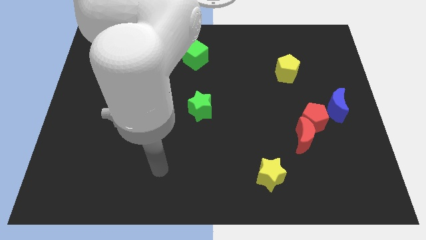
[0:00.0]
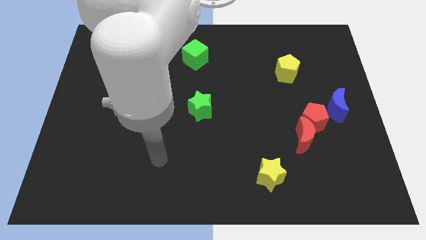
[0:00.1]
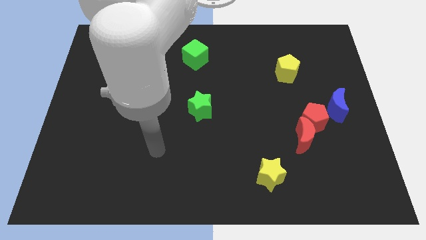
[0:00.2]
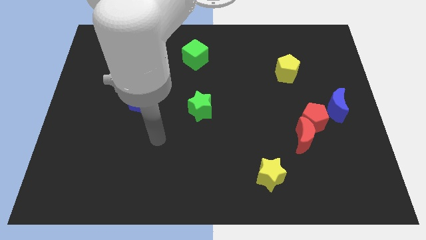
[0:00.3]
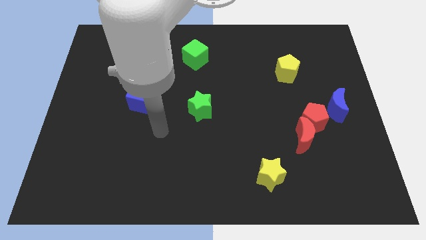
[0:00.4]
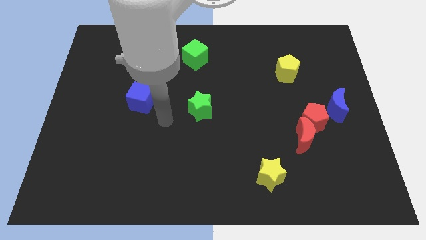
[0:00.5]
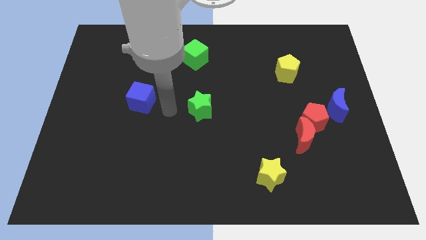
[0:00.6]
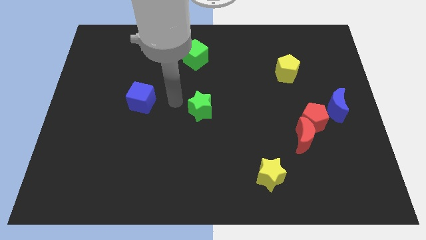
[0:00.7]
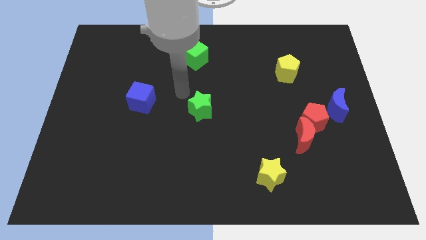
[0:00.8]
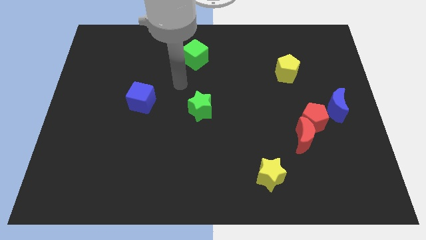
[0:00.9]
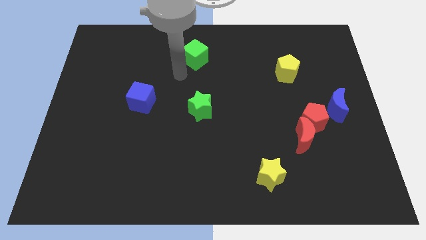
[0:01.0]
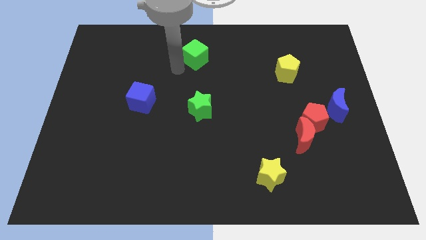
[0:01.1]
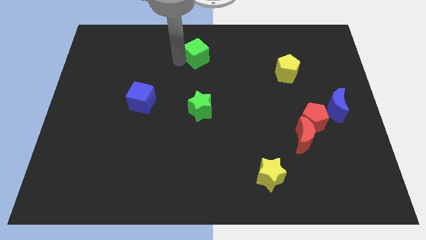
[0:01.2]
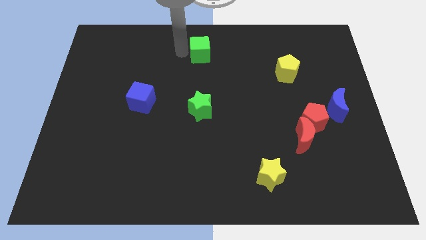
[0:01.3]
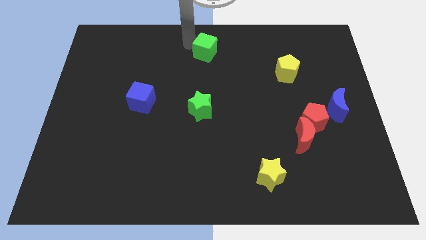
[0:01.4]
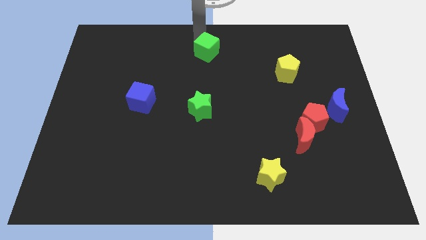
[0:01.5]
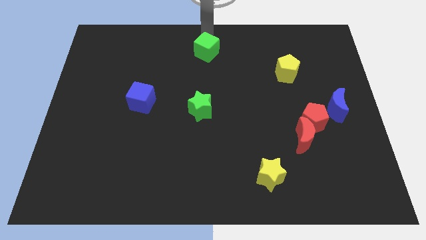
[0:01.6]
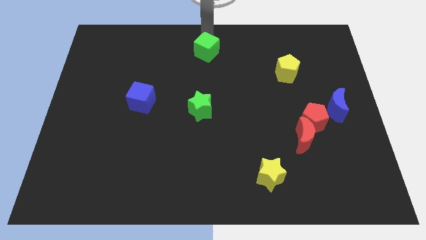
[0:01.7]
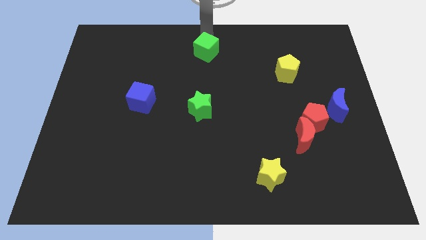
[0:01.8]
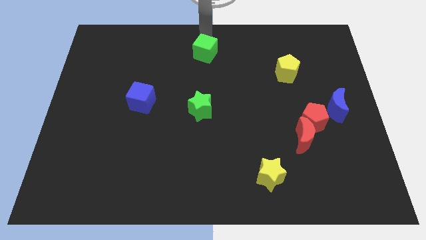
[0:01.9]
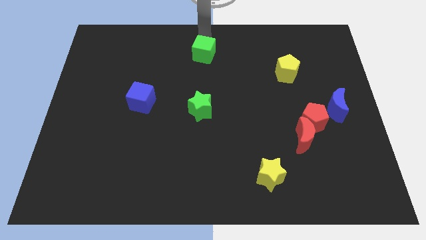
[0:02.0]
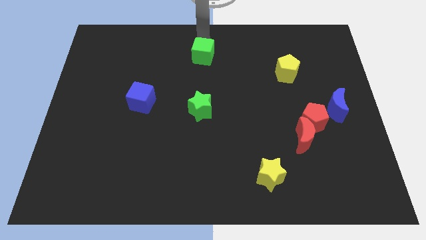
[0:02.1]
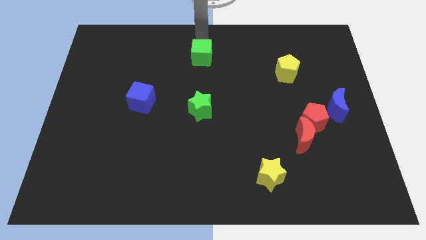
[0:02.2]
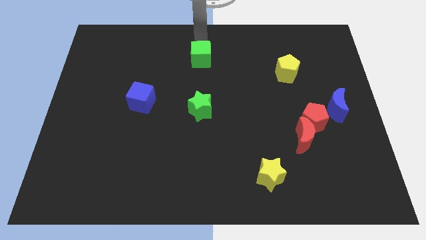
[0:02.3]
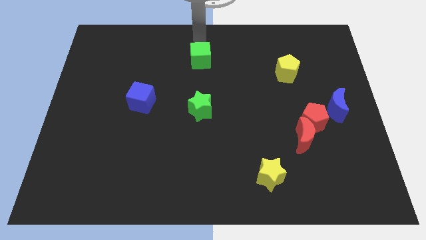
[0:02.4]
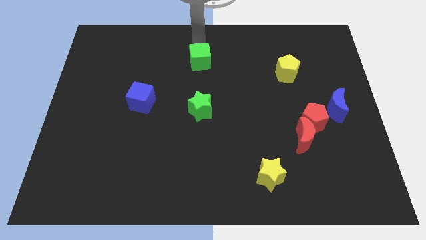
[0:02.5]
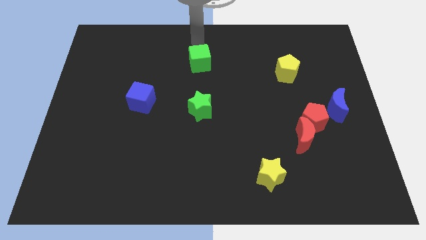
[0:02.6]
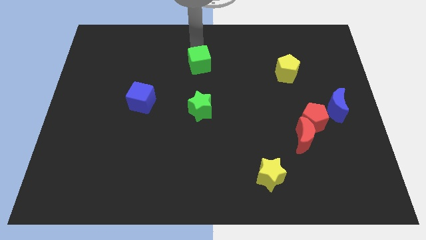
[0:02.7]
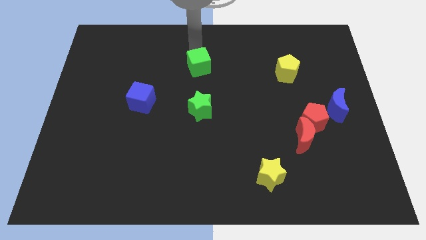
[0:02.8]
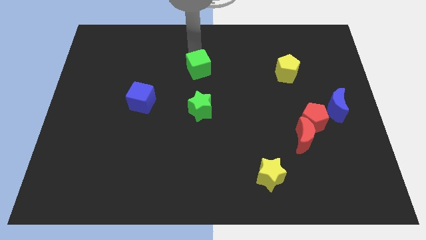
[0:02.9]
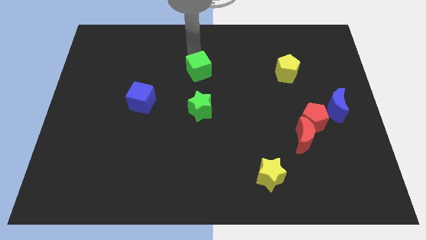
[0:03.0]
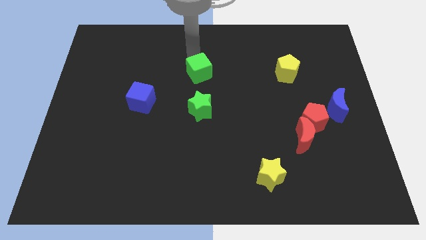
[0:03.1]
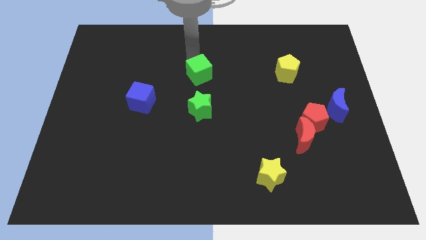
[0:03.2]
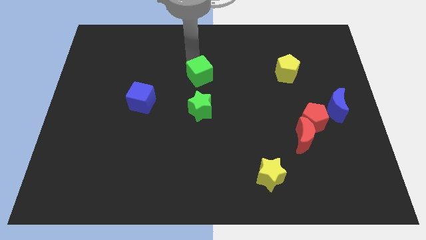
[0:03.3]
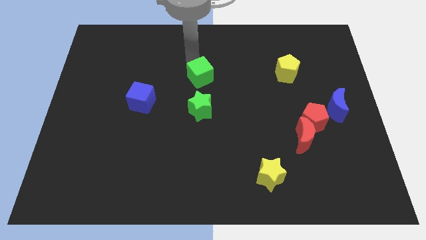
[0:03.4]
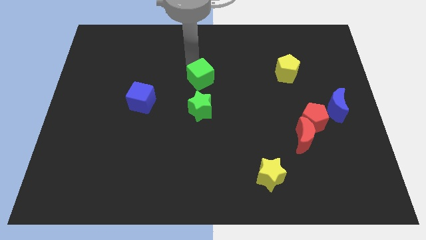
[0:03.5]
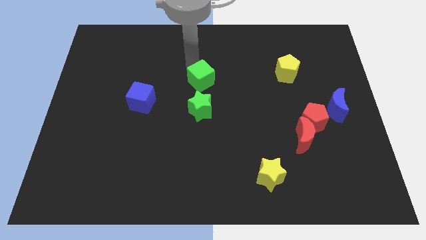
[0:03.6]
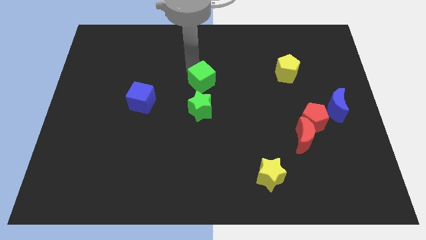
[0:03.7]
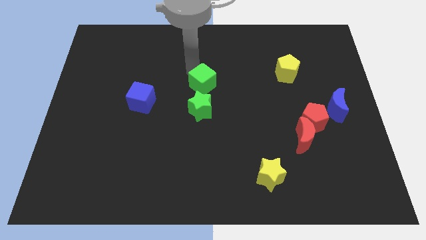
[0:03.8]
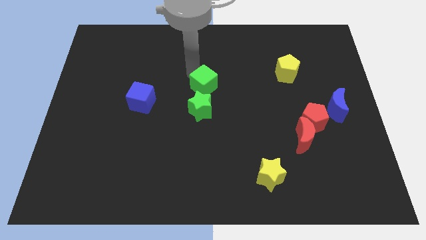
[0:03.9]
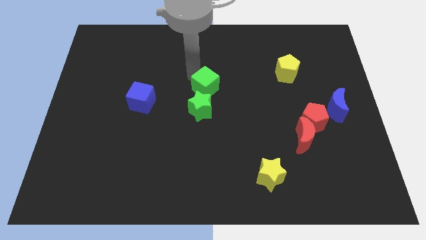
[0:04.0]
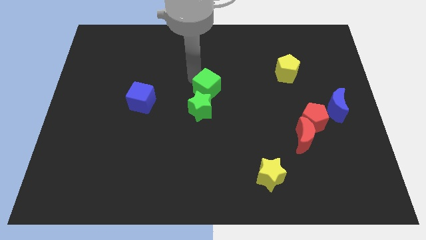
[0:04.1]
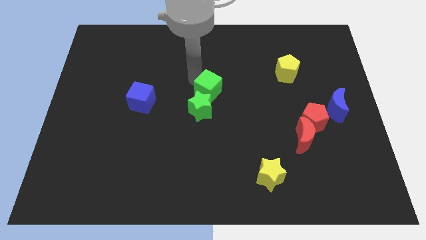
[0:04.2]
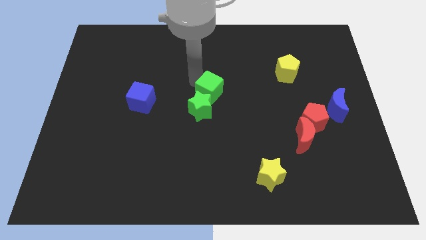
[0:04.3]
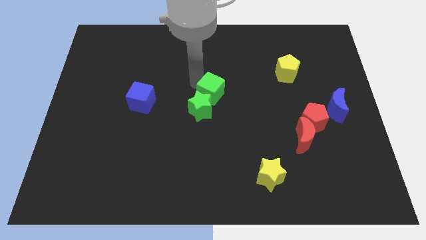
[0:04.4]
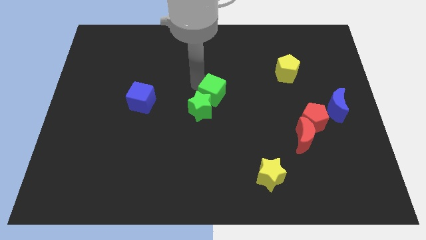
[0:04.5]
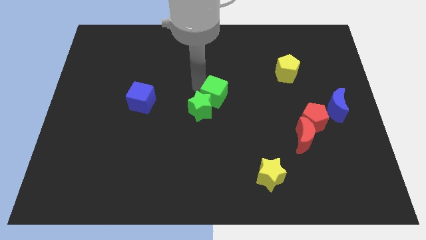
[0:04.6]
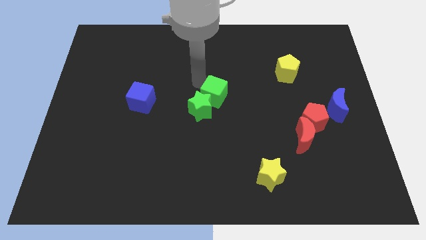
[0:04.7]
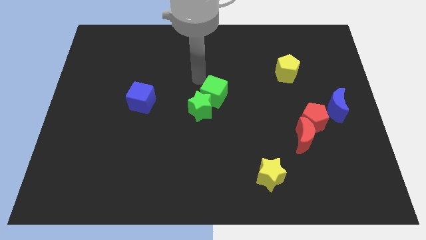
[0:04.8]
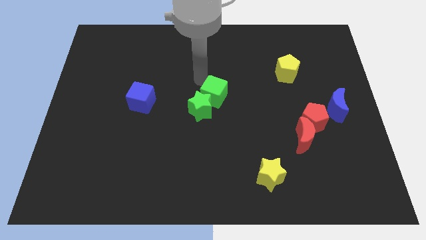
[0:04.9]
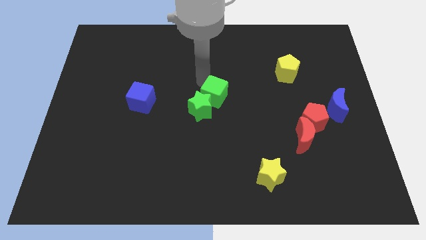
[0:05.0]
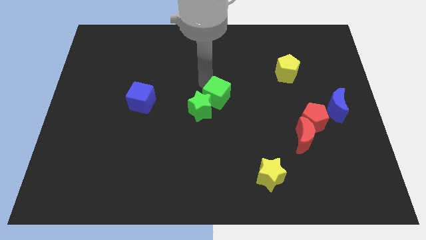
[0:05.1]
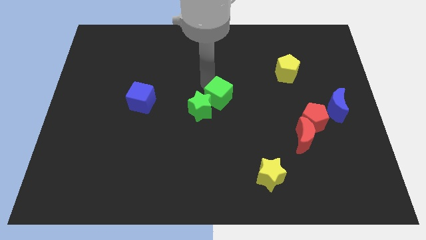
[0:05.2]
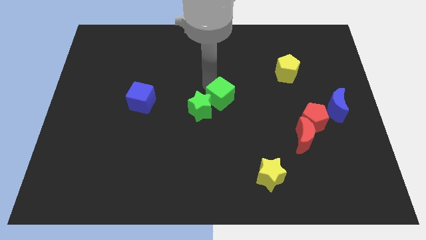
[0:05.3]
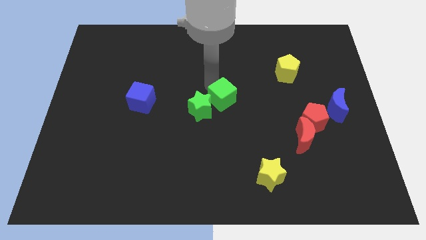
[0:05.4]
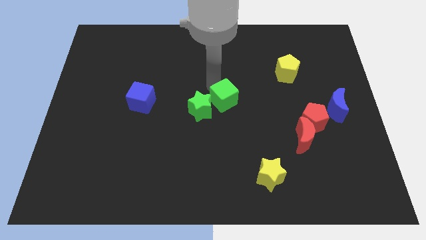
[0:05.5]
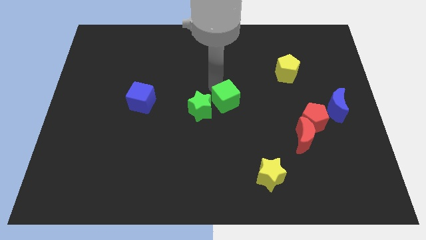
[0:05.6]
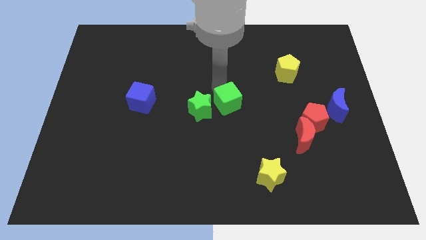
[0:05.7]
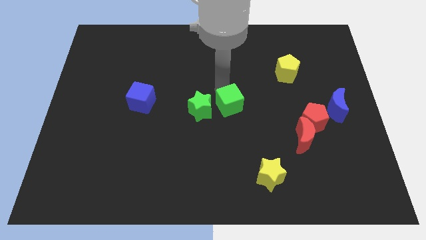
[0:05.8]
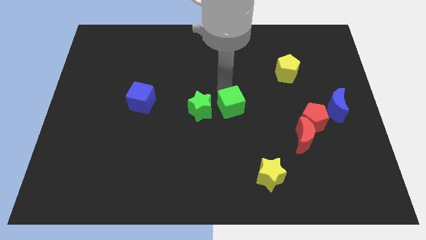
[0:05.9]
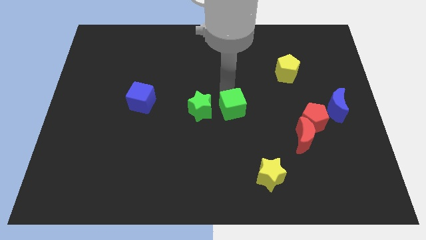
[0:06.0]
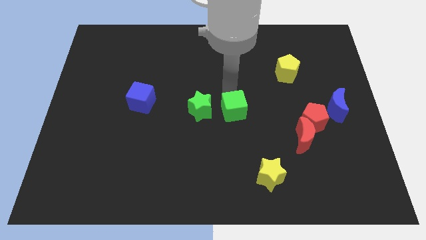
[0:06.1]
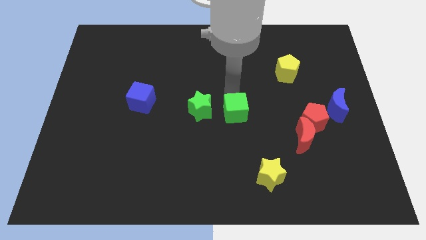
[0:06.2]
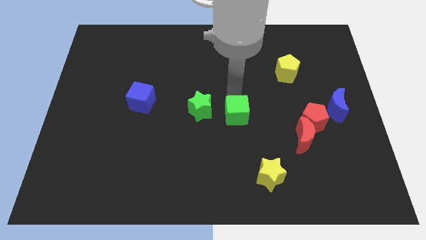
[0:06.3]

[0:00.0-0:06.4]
push the green cube diagonally down and to the right of the green star

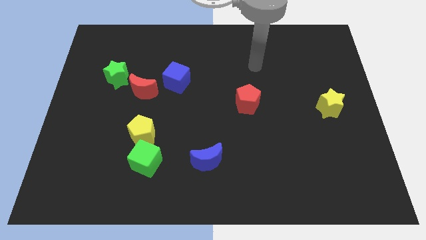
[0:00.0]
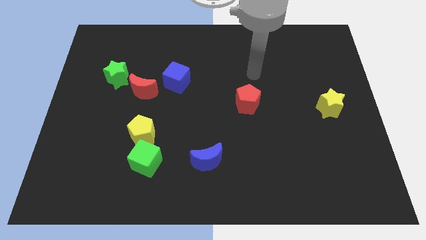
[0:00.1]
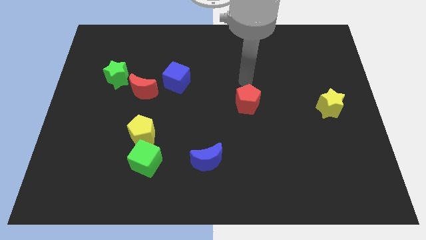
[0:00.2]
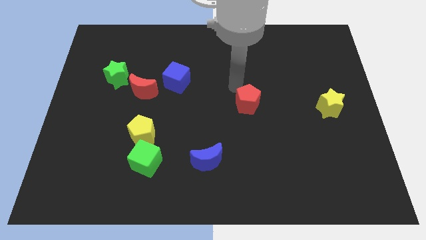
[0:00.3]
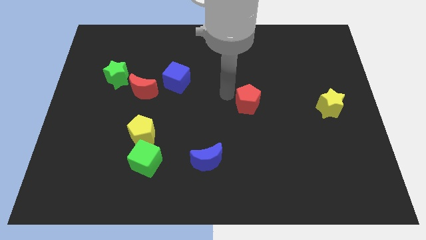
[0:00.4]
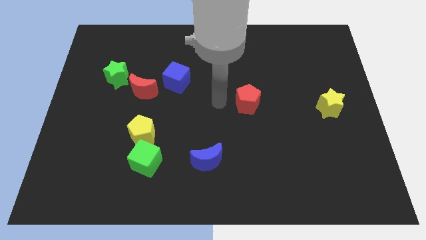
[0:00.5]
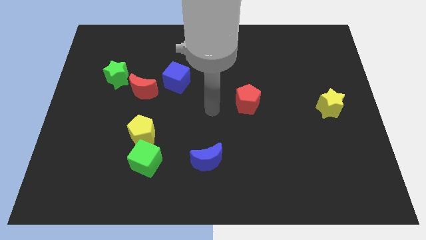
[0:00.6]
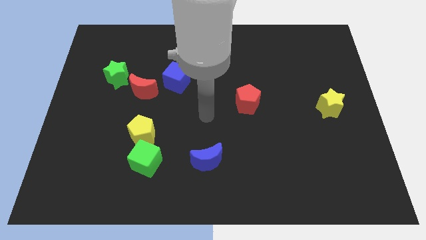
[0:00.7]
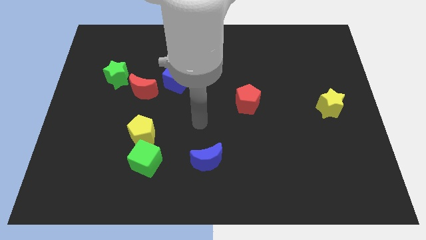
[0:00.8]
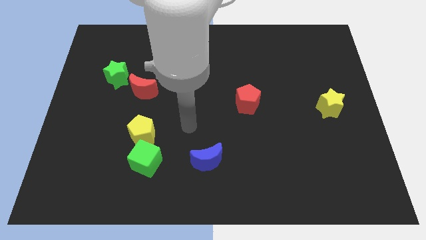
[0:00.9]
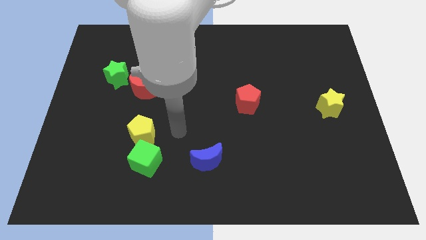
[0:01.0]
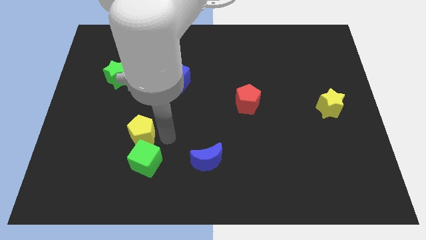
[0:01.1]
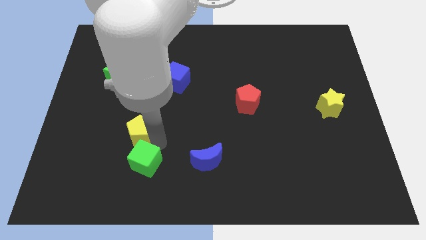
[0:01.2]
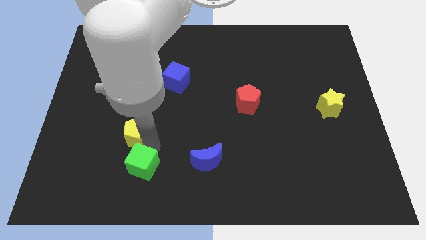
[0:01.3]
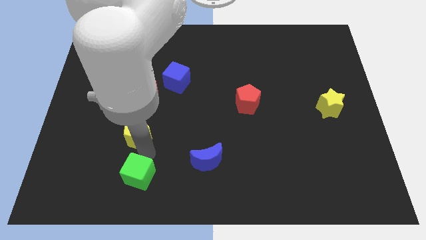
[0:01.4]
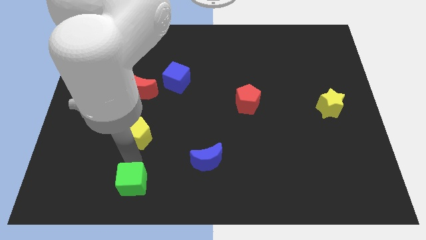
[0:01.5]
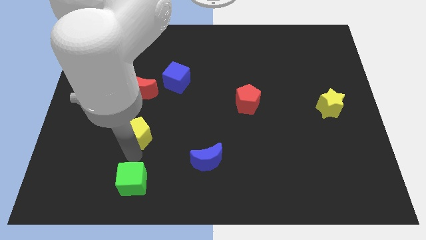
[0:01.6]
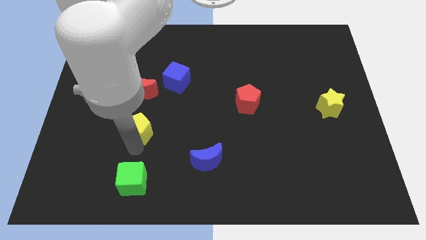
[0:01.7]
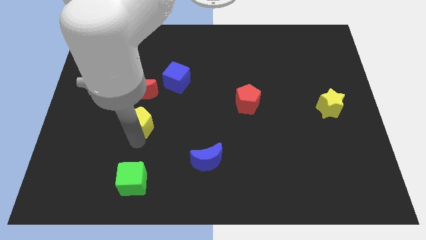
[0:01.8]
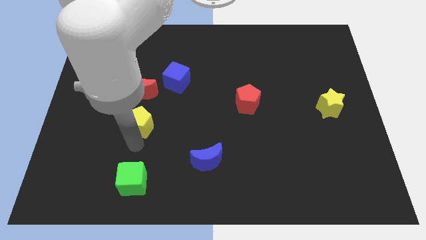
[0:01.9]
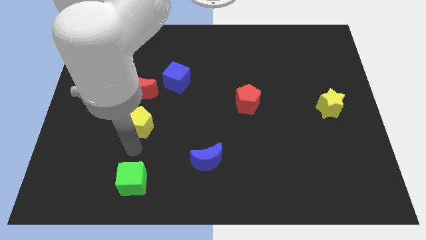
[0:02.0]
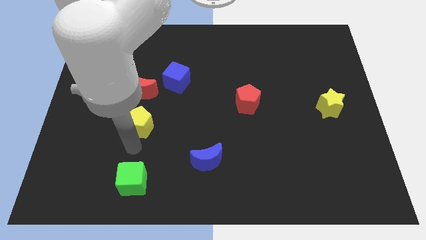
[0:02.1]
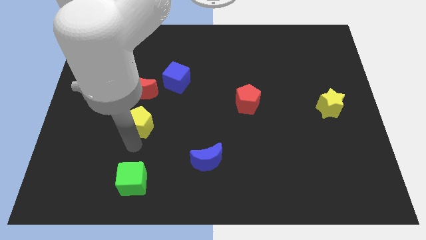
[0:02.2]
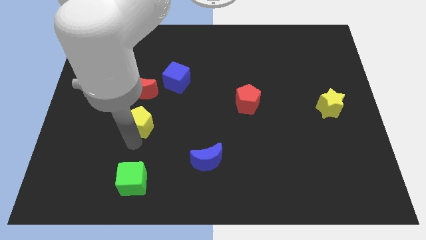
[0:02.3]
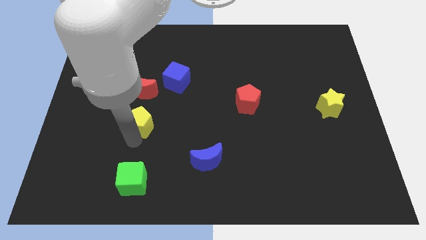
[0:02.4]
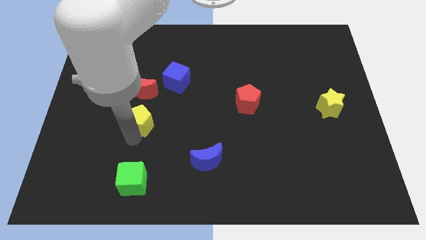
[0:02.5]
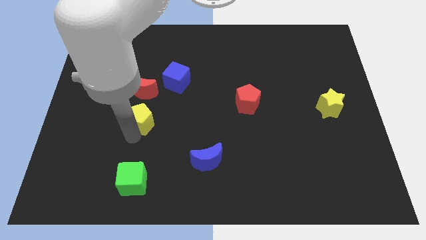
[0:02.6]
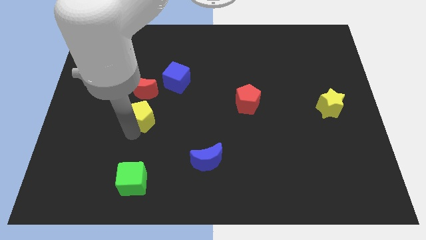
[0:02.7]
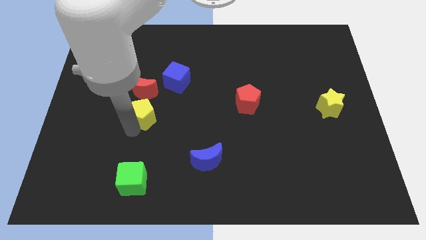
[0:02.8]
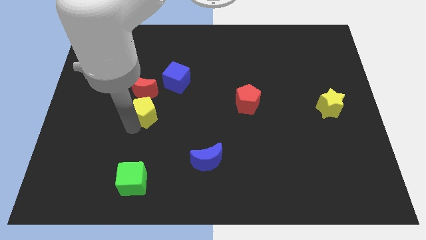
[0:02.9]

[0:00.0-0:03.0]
push the yellow pentagon to the bottom left side of the blue cube
